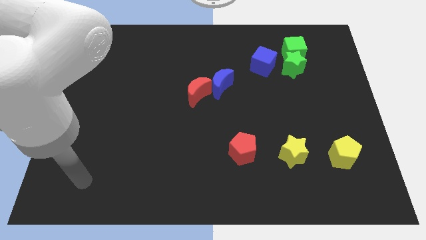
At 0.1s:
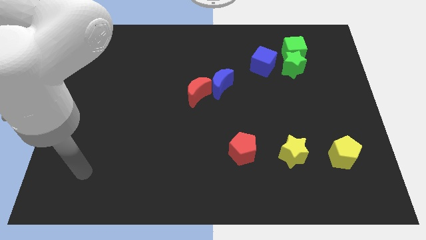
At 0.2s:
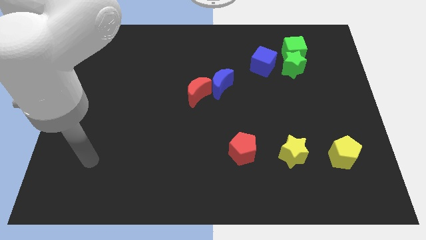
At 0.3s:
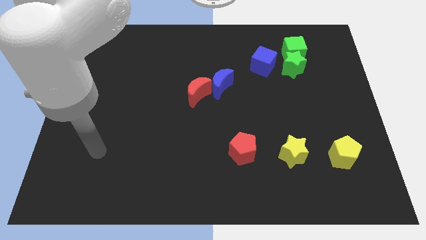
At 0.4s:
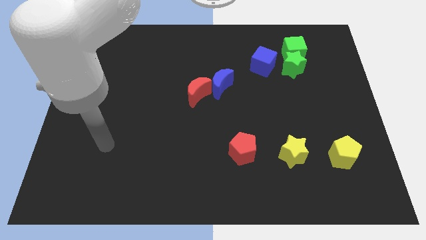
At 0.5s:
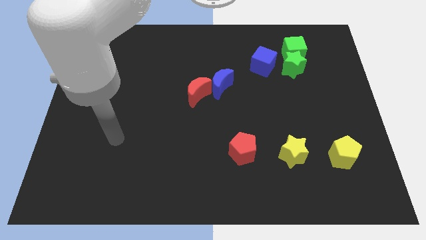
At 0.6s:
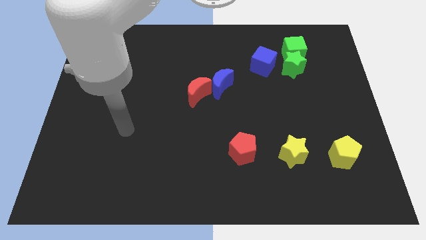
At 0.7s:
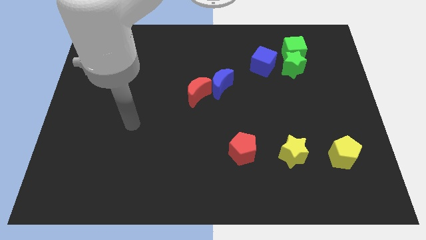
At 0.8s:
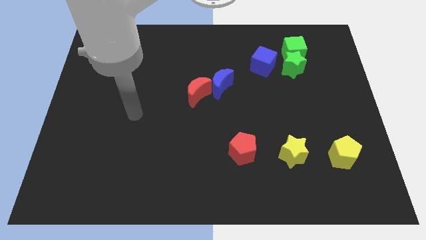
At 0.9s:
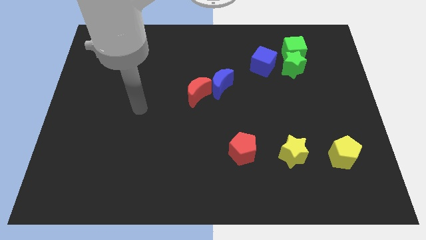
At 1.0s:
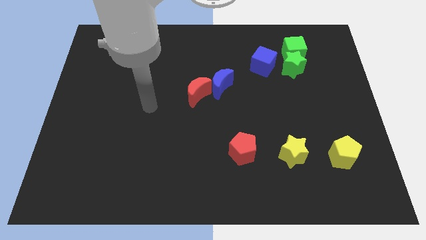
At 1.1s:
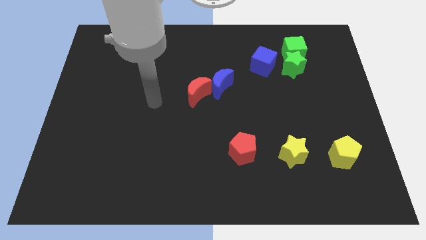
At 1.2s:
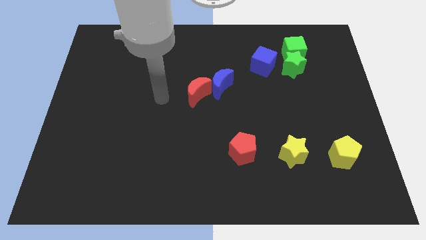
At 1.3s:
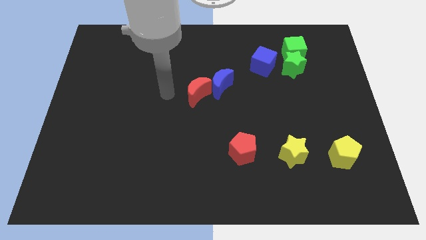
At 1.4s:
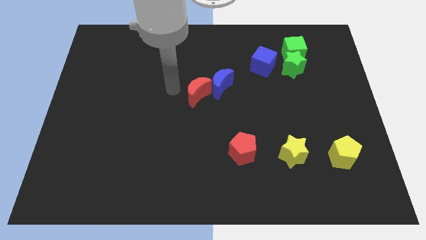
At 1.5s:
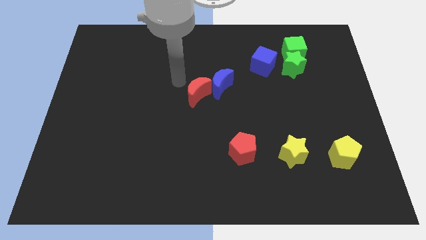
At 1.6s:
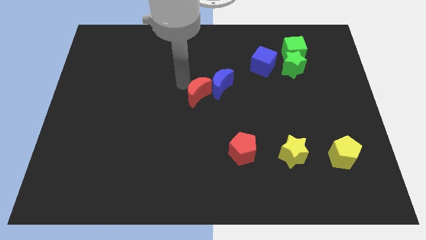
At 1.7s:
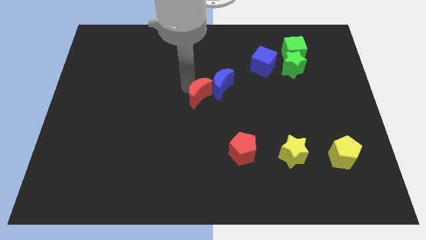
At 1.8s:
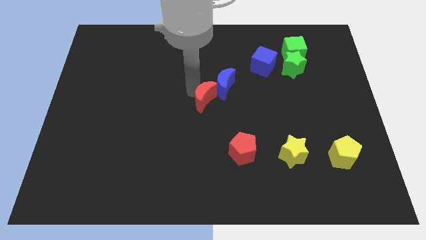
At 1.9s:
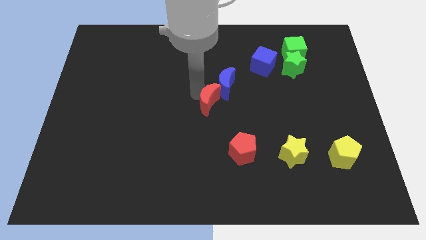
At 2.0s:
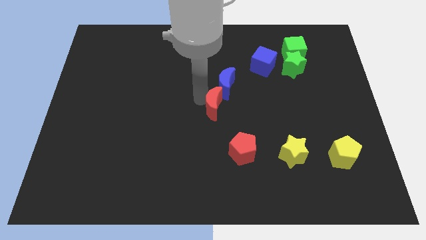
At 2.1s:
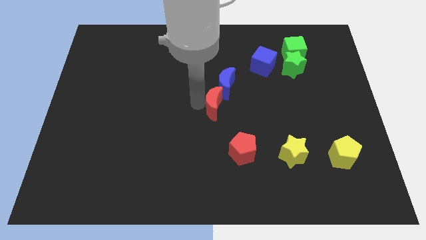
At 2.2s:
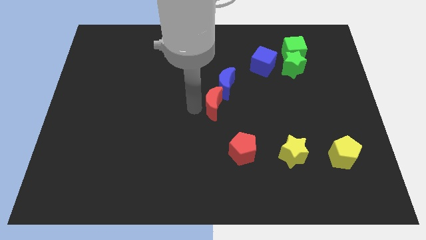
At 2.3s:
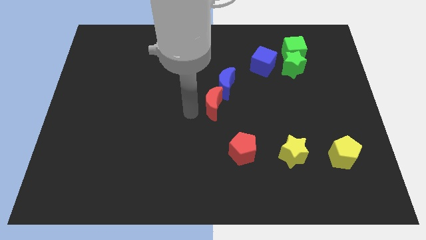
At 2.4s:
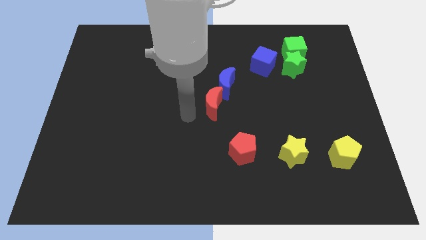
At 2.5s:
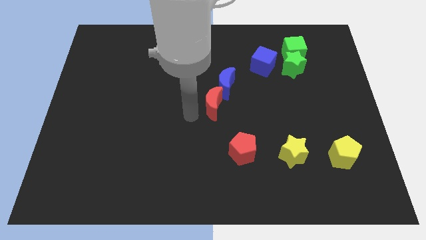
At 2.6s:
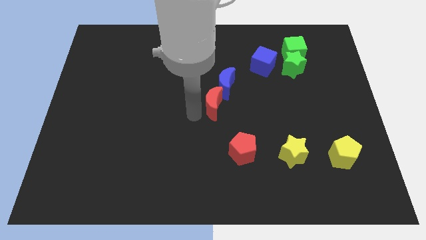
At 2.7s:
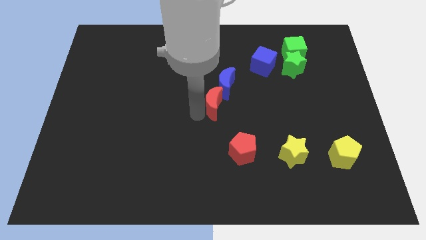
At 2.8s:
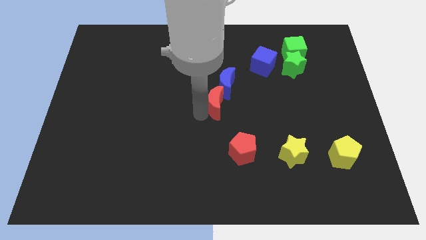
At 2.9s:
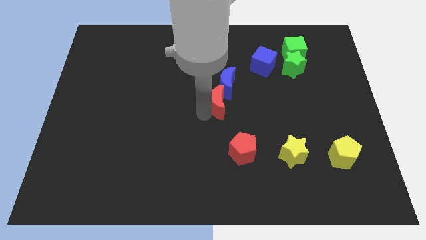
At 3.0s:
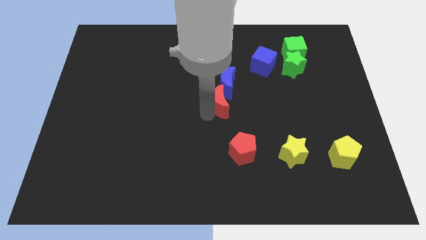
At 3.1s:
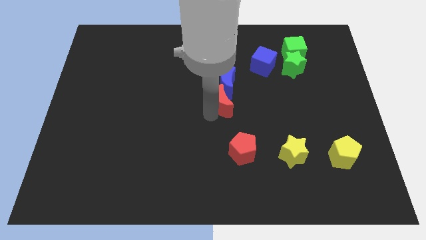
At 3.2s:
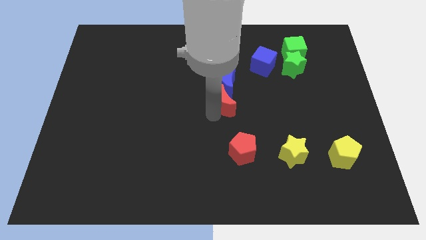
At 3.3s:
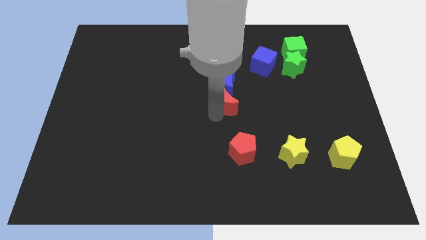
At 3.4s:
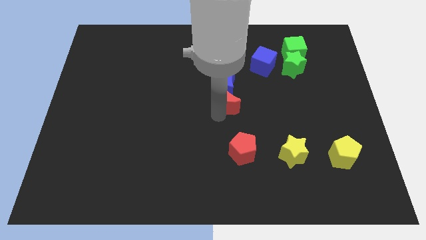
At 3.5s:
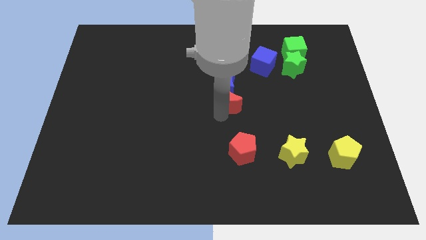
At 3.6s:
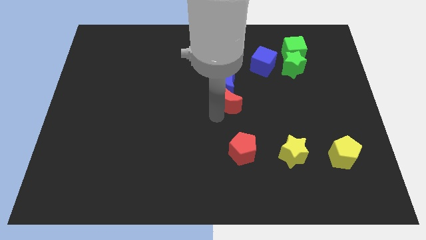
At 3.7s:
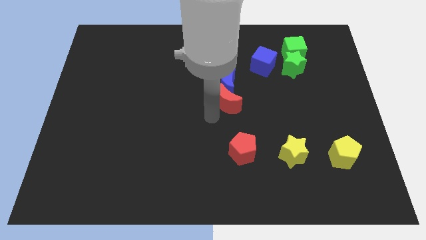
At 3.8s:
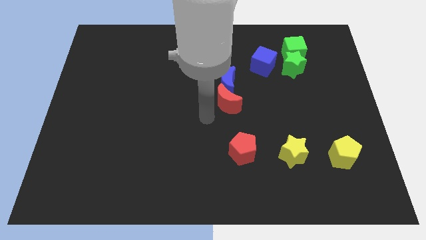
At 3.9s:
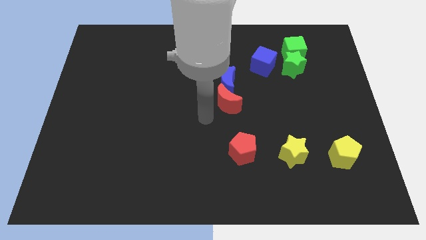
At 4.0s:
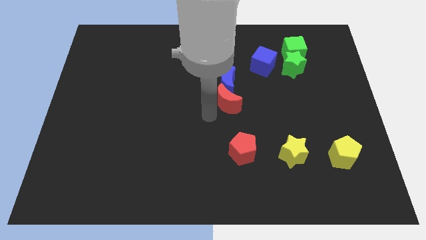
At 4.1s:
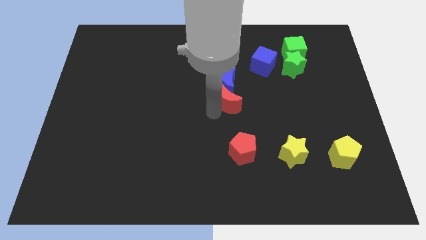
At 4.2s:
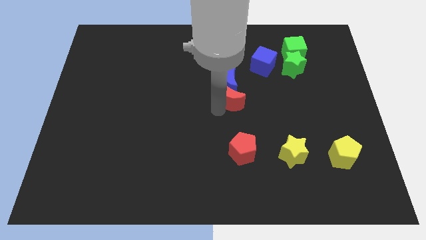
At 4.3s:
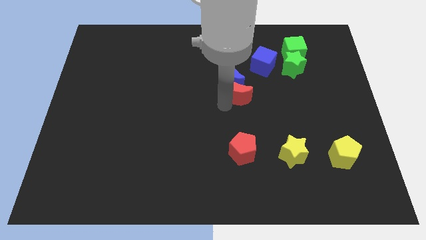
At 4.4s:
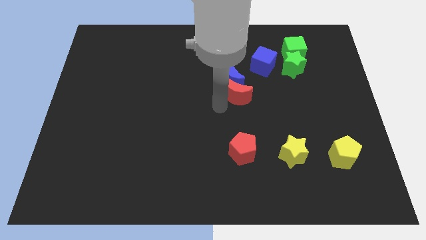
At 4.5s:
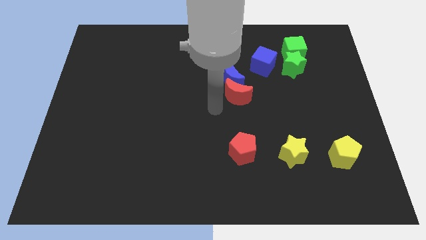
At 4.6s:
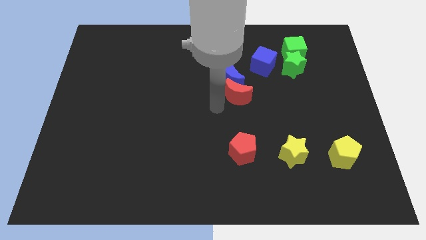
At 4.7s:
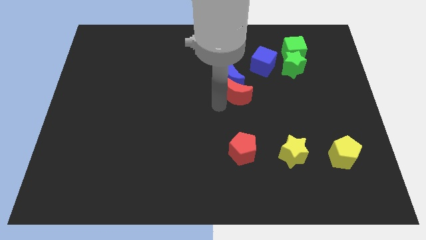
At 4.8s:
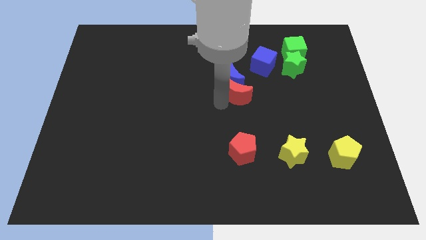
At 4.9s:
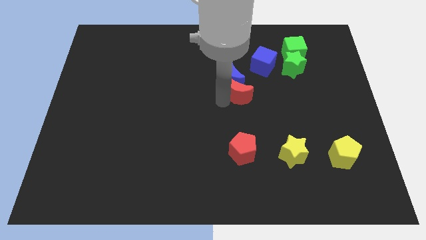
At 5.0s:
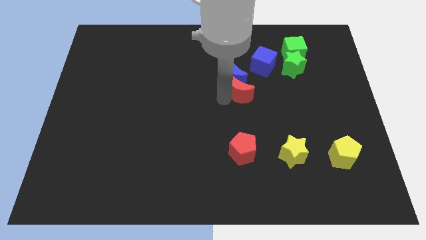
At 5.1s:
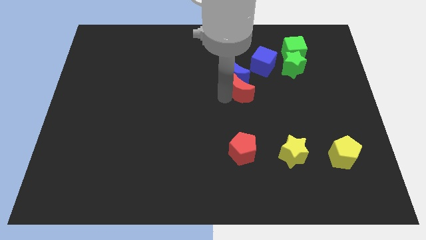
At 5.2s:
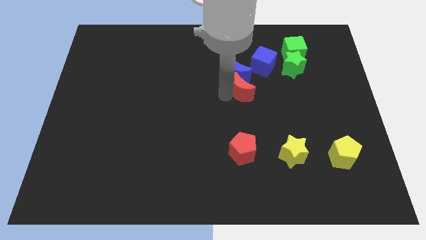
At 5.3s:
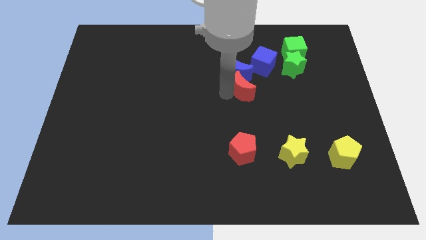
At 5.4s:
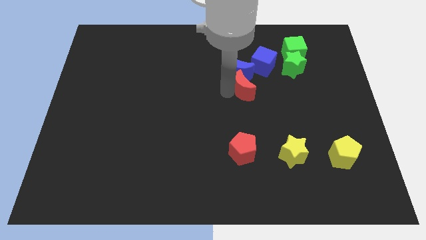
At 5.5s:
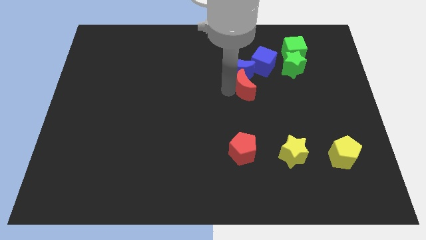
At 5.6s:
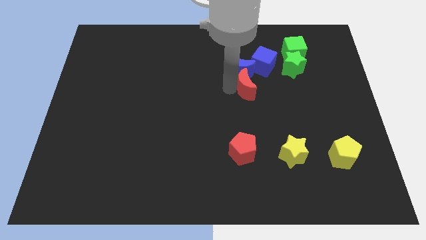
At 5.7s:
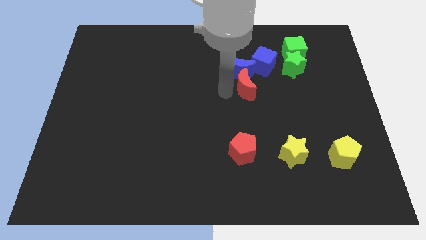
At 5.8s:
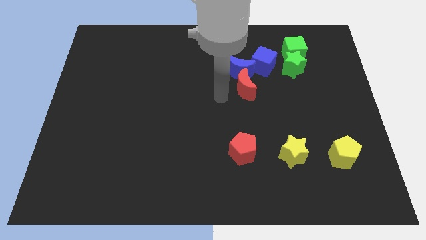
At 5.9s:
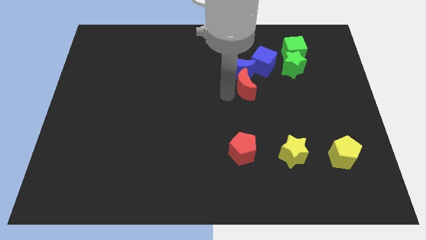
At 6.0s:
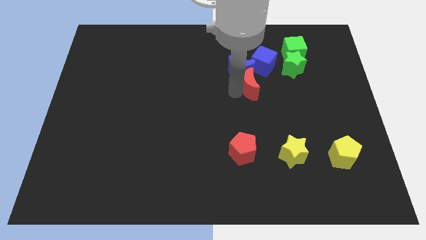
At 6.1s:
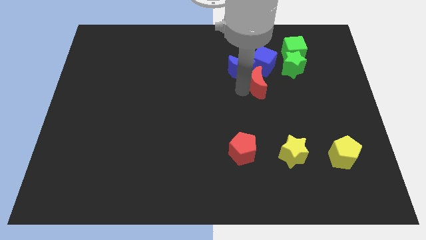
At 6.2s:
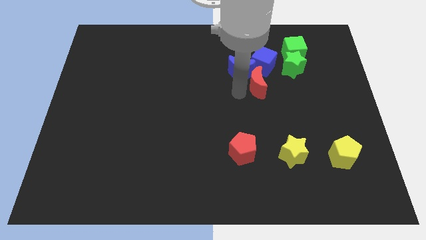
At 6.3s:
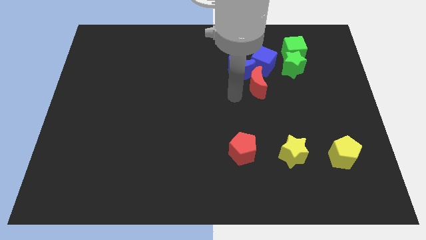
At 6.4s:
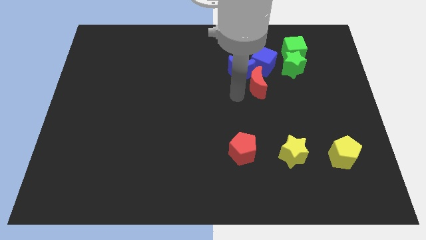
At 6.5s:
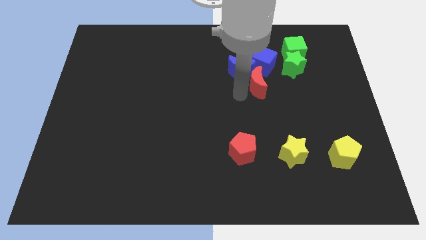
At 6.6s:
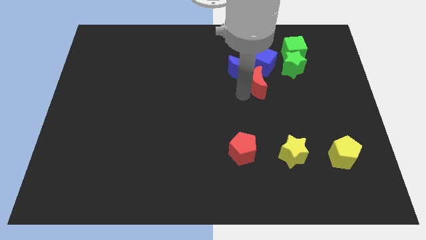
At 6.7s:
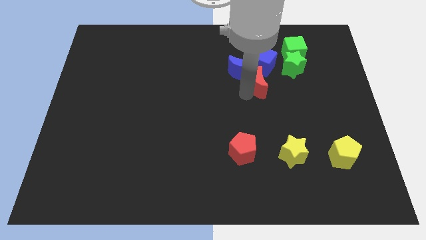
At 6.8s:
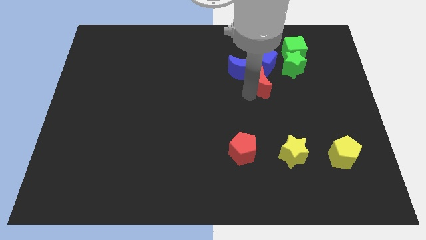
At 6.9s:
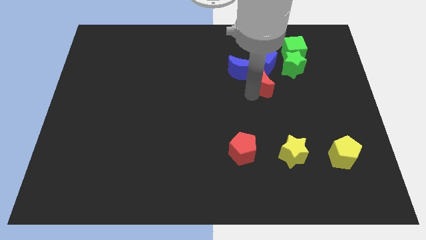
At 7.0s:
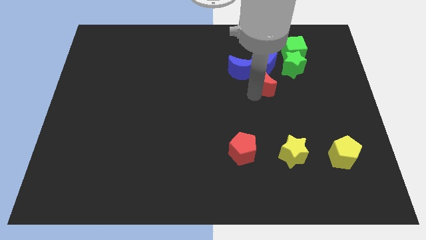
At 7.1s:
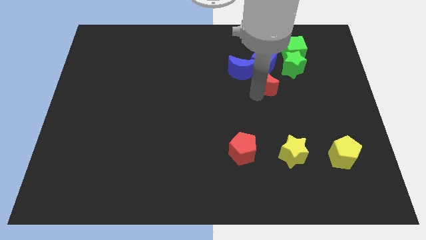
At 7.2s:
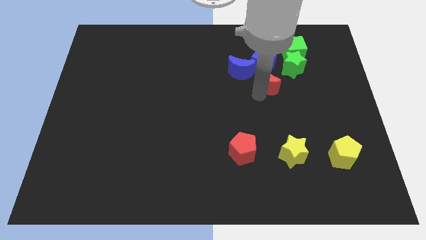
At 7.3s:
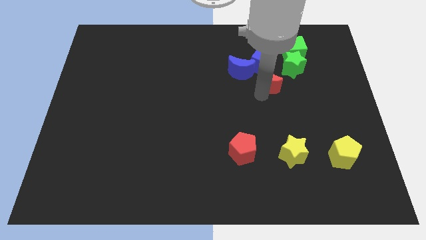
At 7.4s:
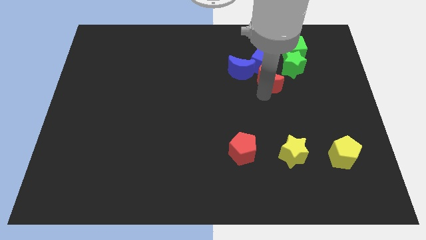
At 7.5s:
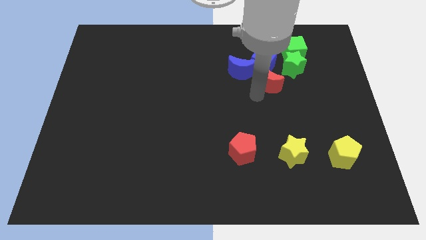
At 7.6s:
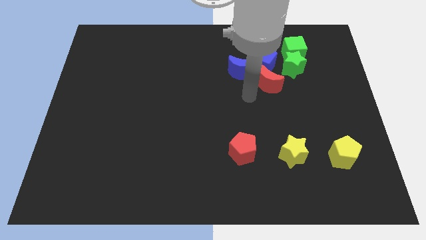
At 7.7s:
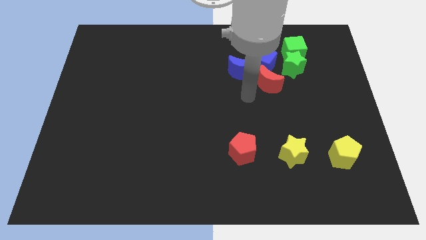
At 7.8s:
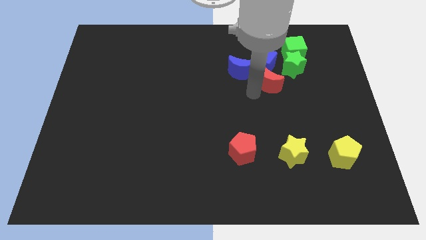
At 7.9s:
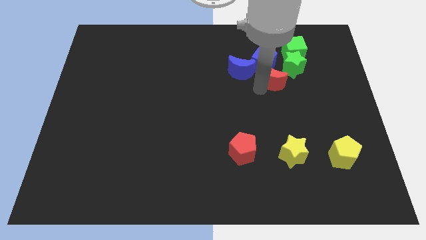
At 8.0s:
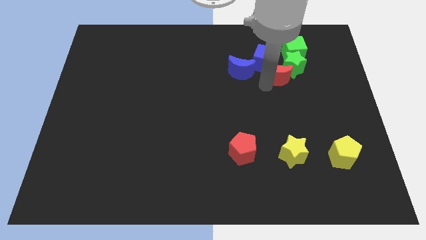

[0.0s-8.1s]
push the red moon next to the green star
